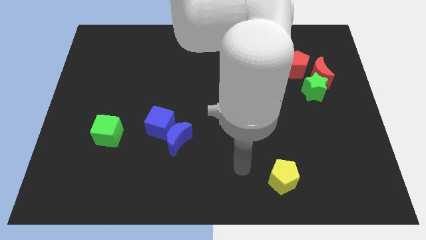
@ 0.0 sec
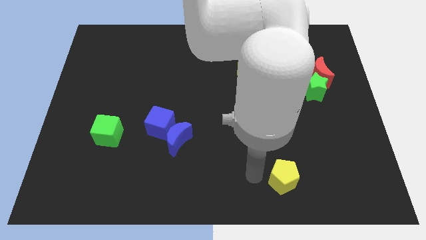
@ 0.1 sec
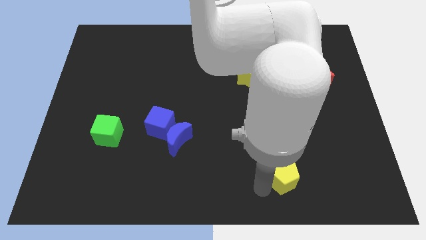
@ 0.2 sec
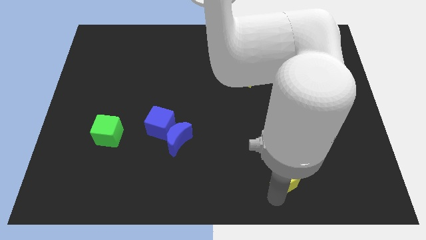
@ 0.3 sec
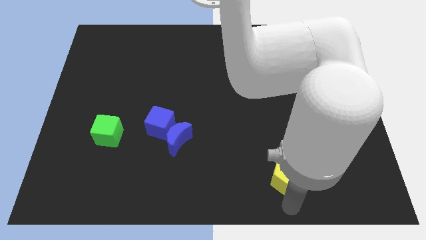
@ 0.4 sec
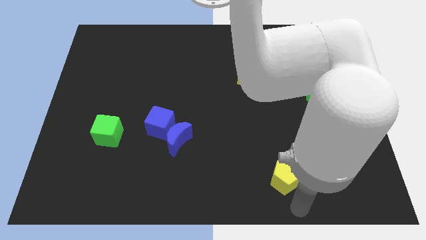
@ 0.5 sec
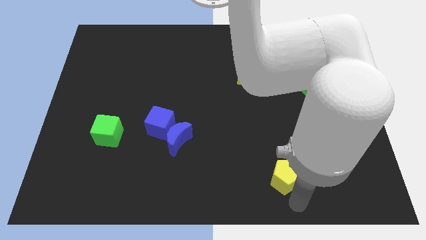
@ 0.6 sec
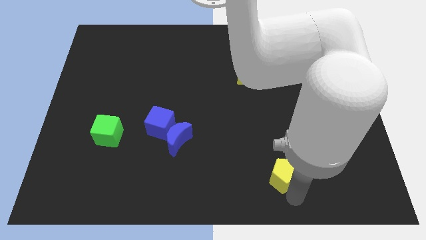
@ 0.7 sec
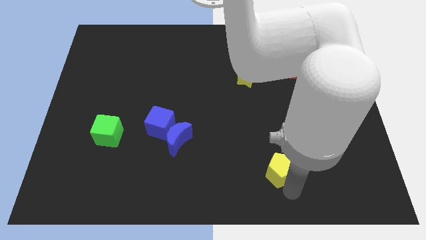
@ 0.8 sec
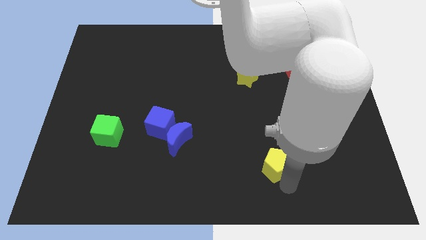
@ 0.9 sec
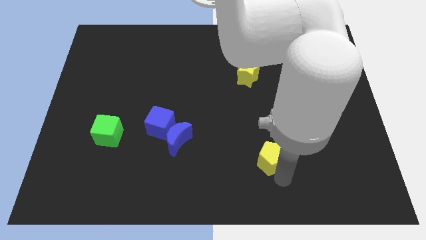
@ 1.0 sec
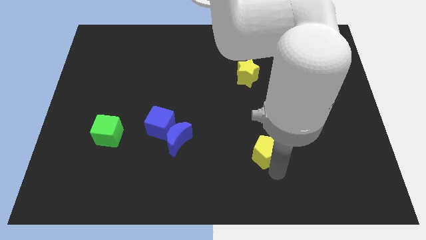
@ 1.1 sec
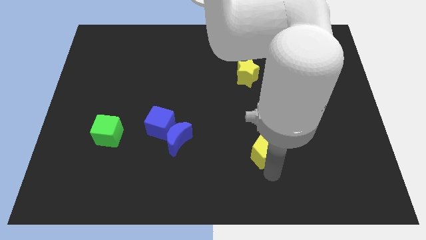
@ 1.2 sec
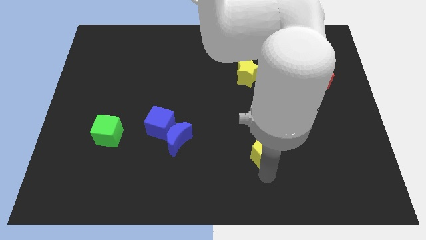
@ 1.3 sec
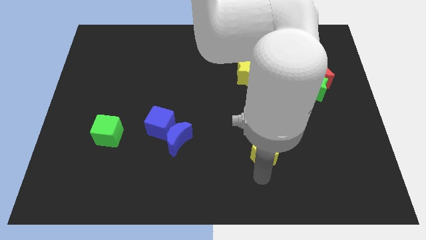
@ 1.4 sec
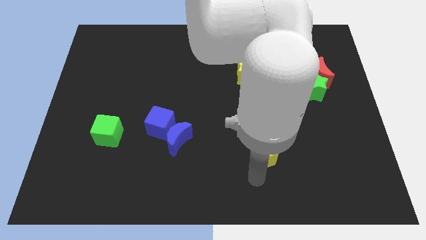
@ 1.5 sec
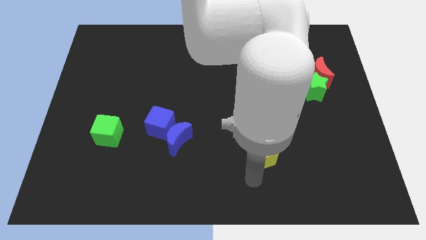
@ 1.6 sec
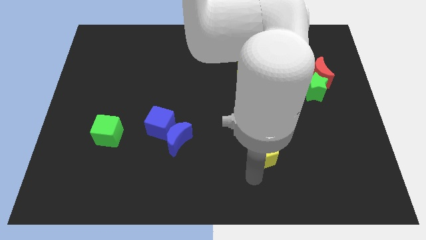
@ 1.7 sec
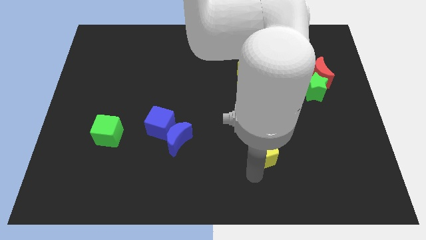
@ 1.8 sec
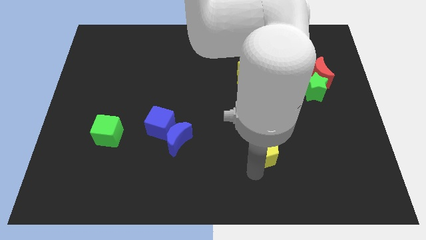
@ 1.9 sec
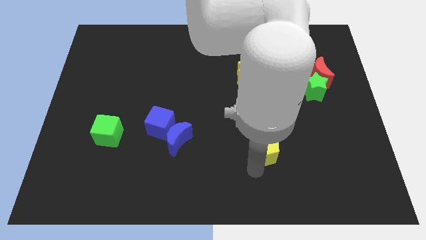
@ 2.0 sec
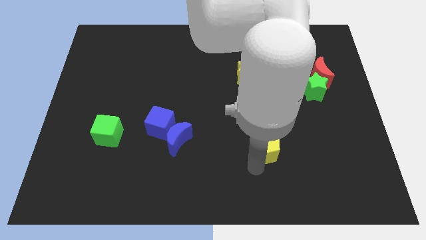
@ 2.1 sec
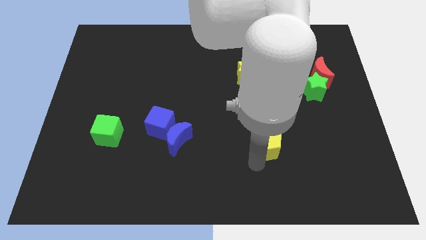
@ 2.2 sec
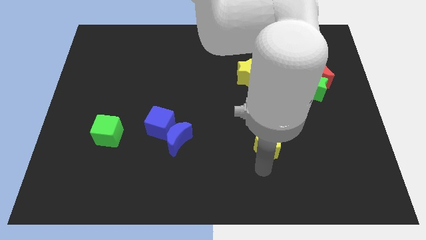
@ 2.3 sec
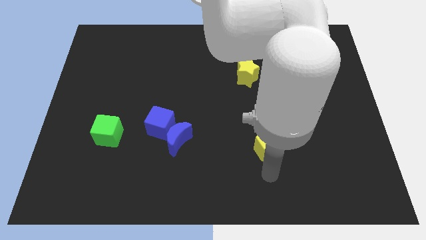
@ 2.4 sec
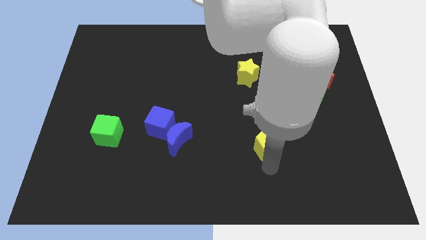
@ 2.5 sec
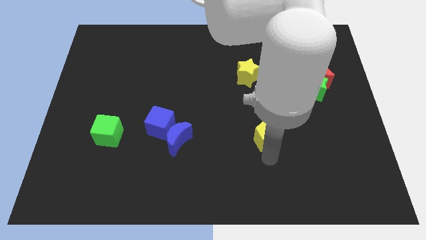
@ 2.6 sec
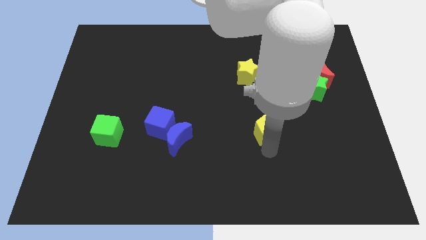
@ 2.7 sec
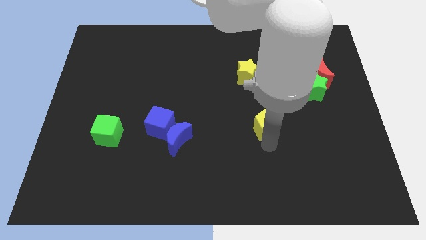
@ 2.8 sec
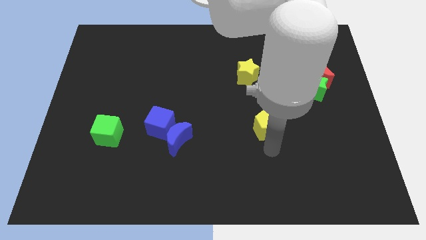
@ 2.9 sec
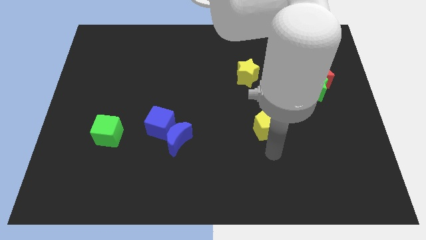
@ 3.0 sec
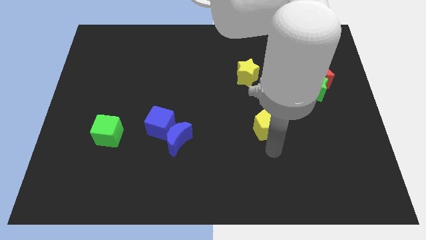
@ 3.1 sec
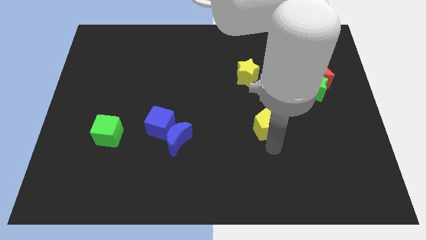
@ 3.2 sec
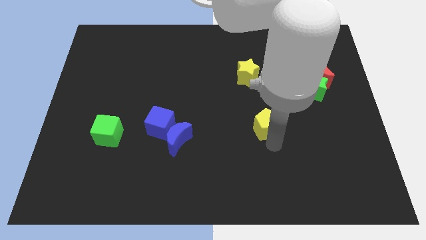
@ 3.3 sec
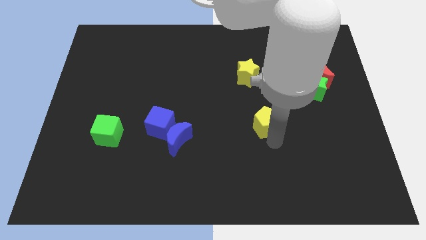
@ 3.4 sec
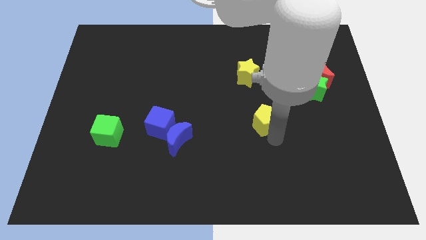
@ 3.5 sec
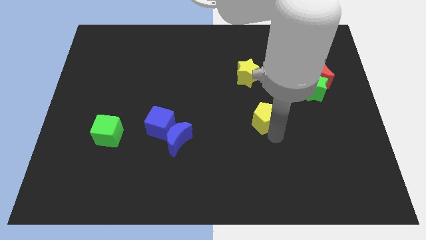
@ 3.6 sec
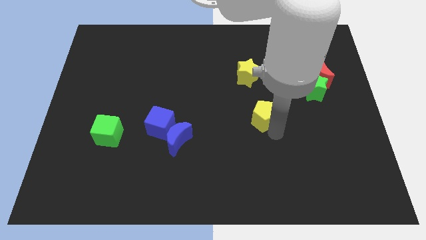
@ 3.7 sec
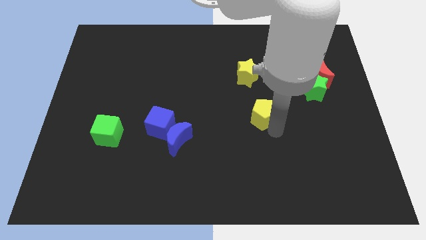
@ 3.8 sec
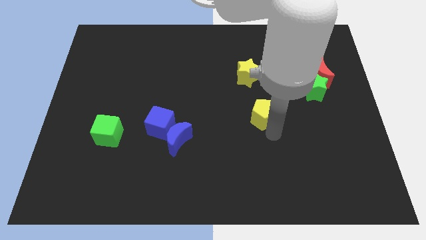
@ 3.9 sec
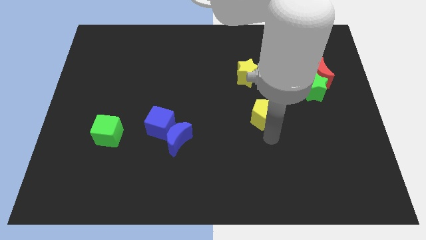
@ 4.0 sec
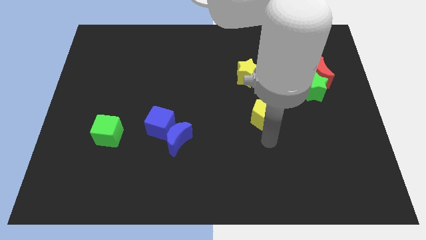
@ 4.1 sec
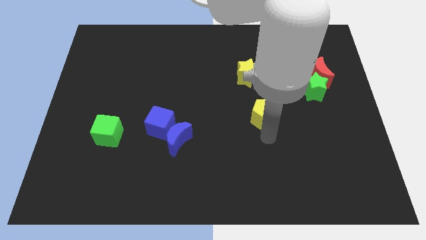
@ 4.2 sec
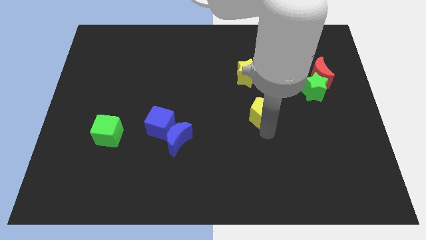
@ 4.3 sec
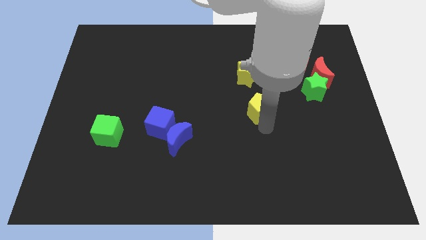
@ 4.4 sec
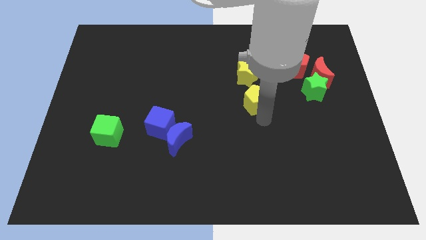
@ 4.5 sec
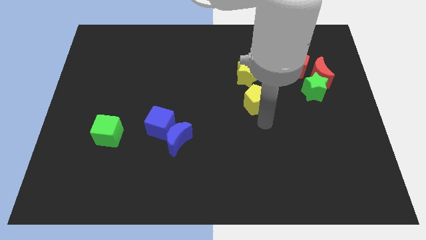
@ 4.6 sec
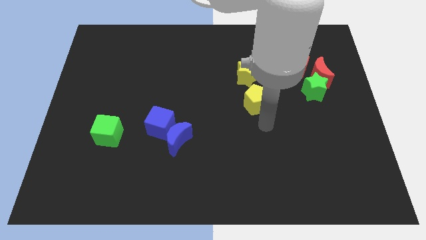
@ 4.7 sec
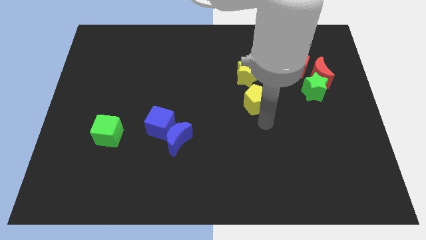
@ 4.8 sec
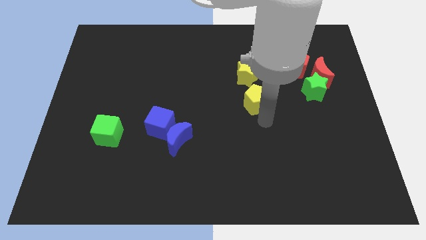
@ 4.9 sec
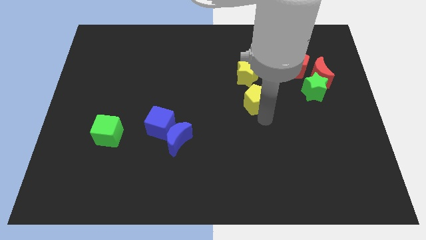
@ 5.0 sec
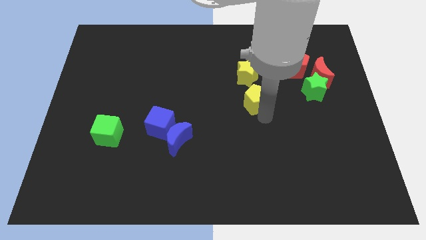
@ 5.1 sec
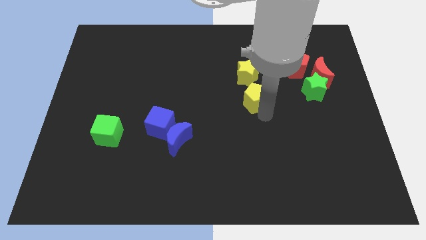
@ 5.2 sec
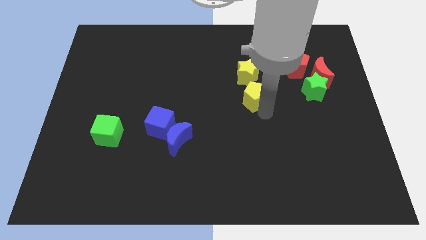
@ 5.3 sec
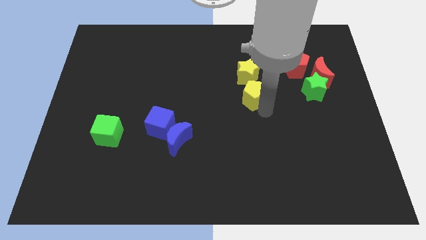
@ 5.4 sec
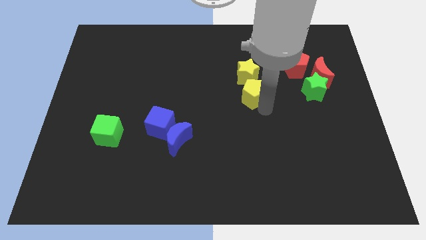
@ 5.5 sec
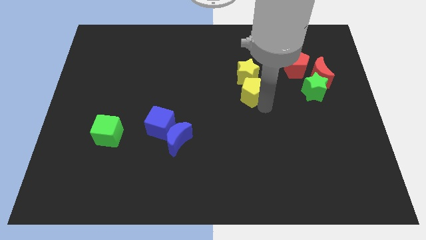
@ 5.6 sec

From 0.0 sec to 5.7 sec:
push the yellow pentagon towards the yellow star

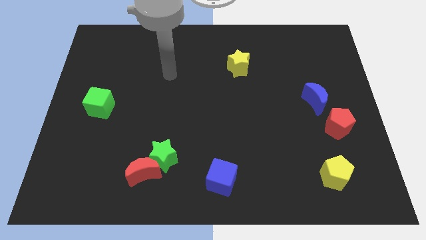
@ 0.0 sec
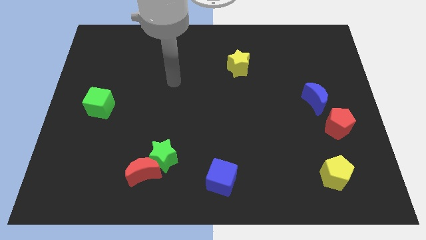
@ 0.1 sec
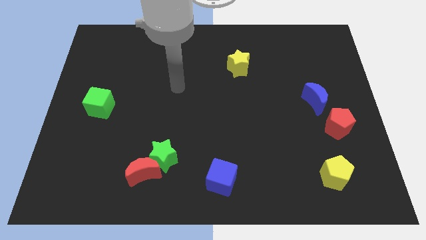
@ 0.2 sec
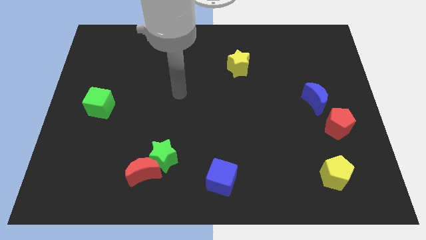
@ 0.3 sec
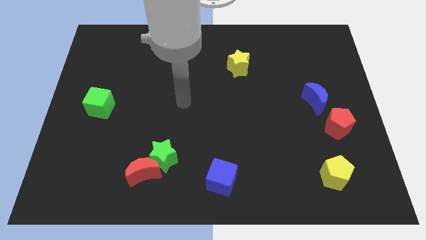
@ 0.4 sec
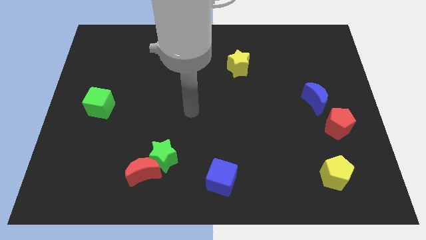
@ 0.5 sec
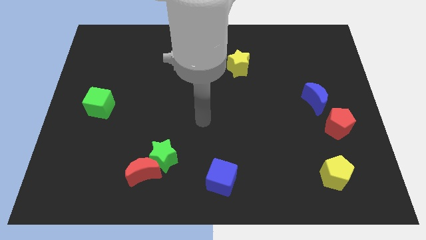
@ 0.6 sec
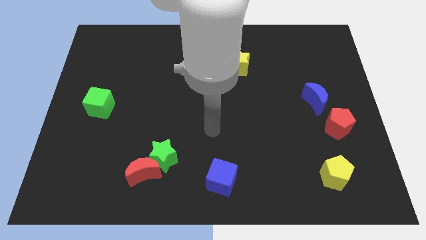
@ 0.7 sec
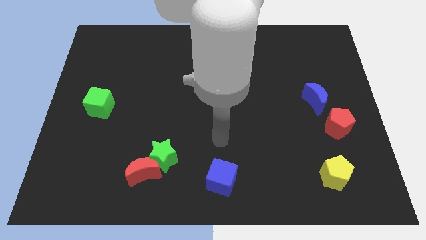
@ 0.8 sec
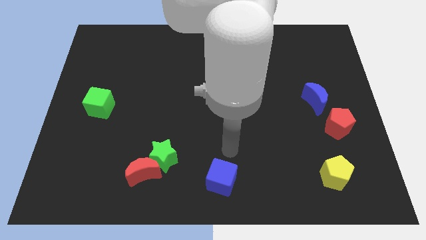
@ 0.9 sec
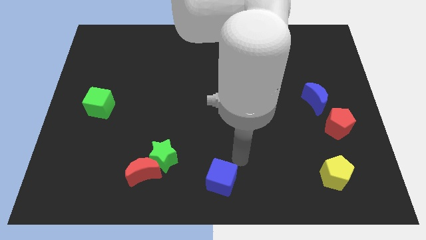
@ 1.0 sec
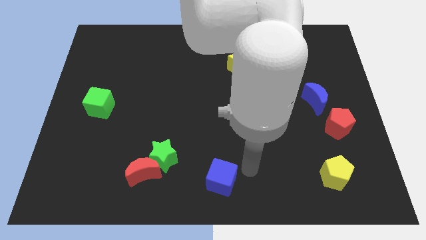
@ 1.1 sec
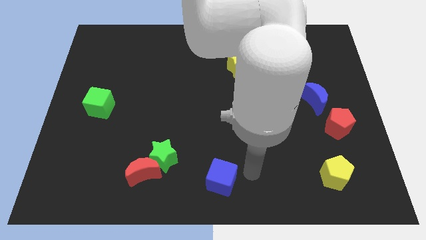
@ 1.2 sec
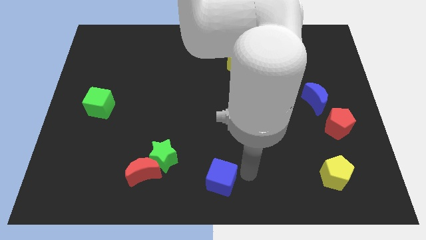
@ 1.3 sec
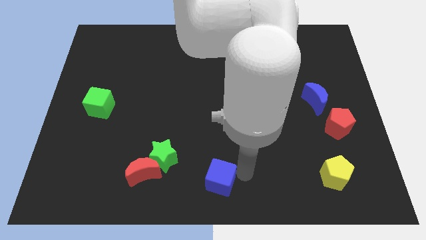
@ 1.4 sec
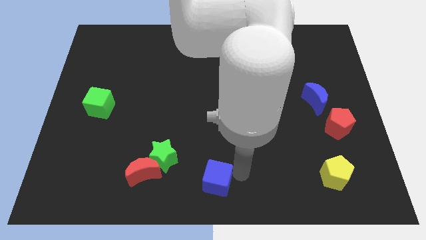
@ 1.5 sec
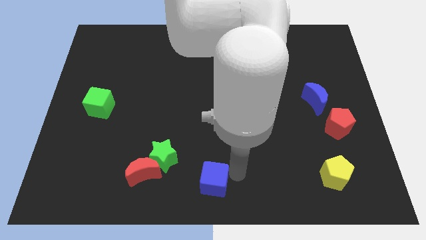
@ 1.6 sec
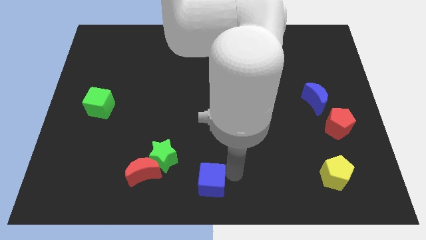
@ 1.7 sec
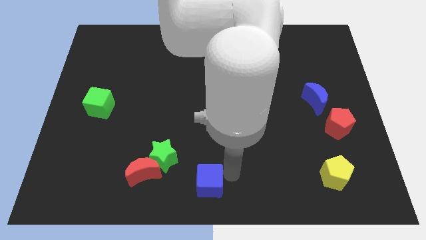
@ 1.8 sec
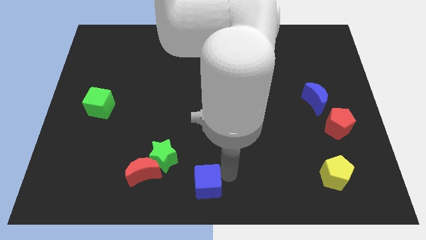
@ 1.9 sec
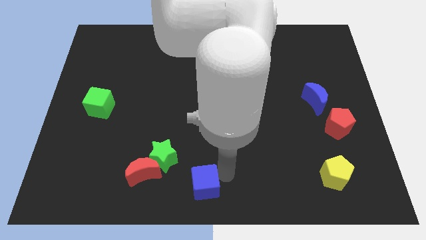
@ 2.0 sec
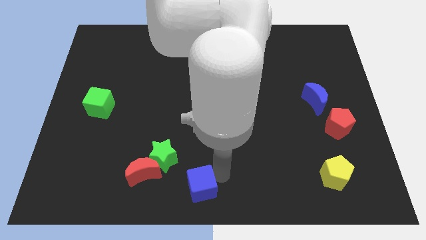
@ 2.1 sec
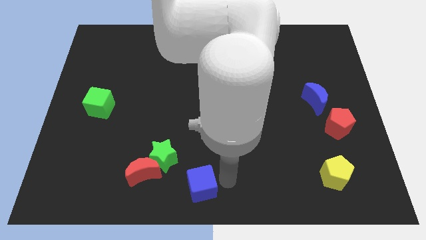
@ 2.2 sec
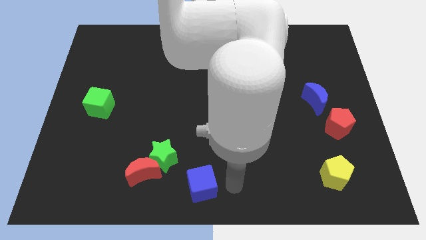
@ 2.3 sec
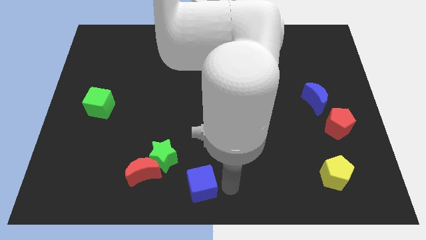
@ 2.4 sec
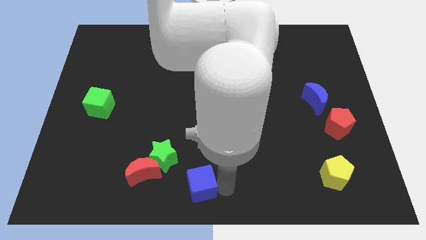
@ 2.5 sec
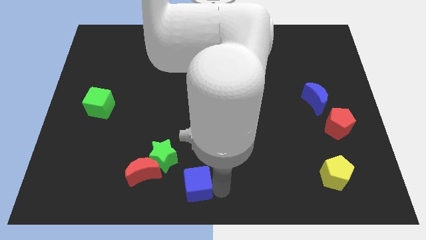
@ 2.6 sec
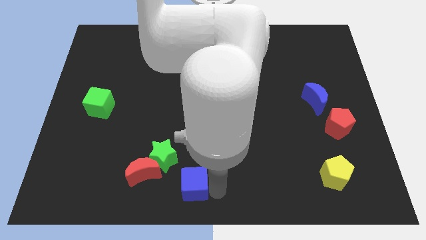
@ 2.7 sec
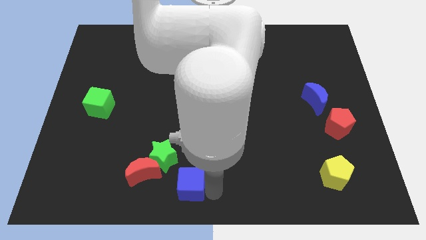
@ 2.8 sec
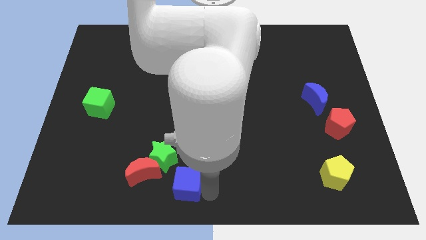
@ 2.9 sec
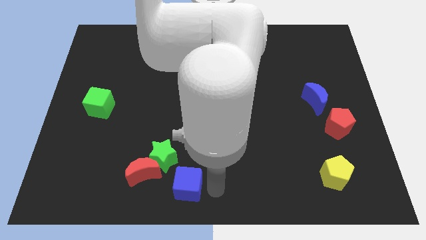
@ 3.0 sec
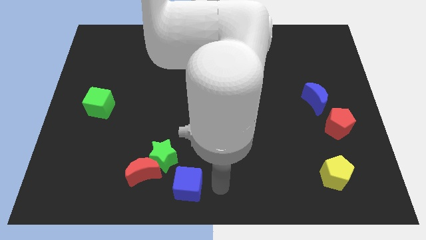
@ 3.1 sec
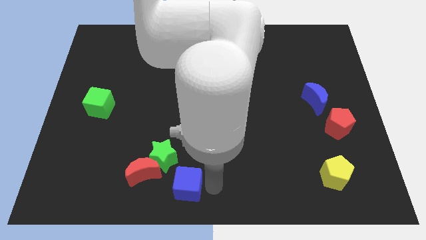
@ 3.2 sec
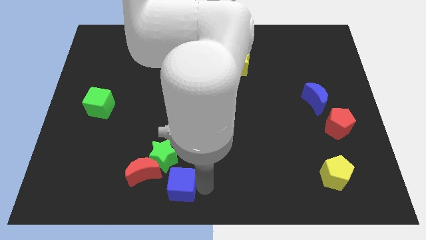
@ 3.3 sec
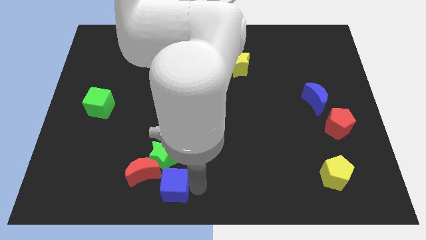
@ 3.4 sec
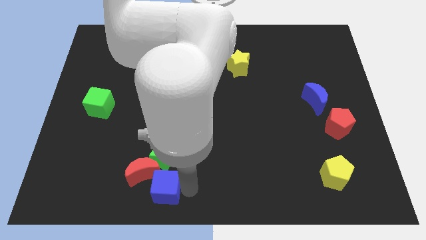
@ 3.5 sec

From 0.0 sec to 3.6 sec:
push the blue cube towards the red moon
